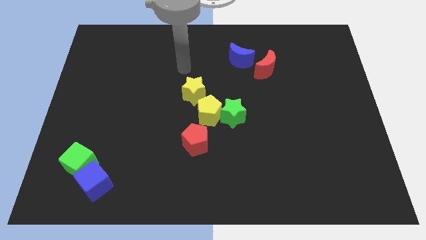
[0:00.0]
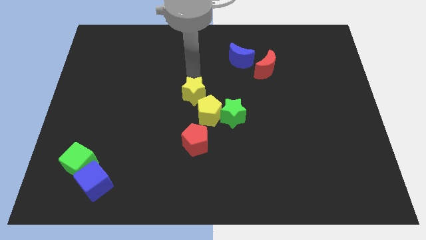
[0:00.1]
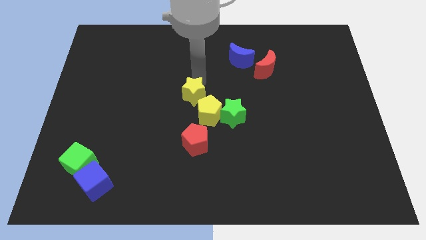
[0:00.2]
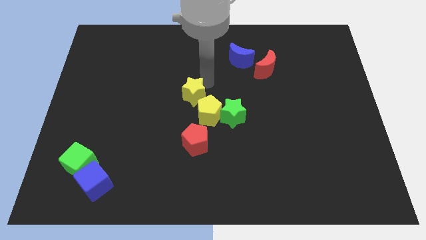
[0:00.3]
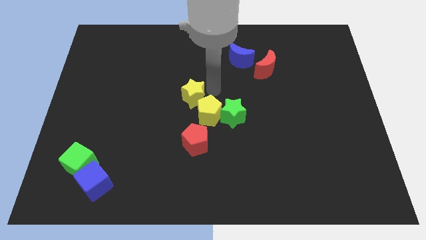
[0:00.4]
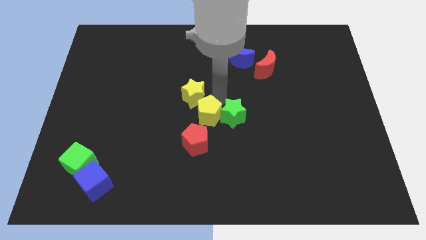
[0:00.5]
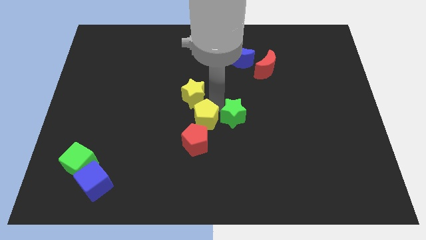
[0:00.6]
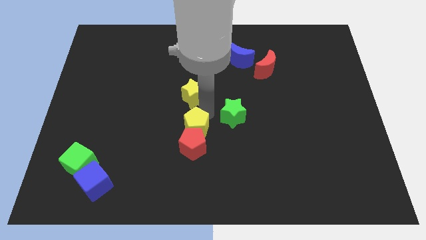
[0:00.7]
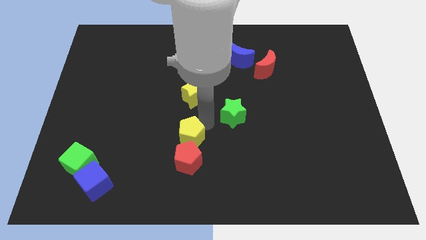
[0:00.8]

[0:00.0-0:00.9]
pull the green star apart from the yellow pentagon

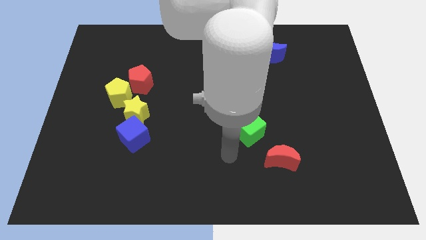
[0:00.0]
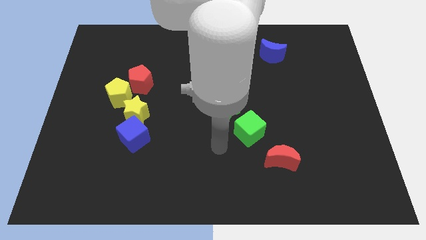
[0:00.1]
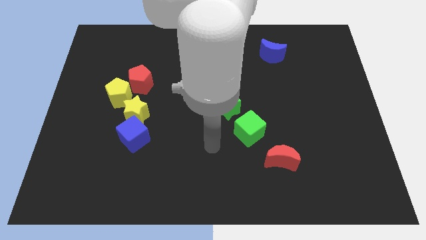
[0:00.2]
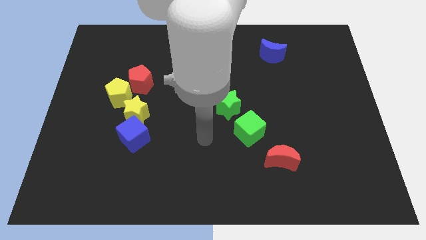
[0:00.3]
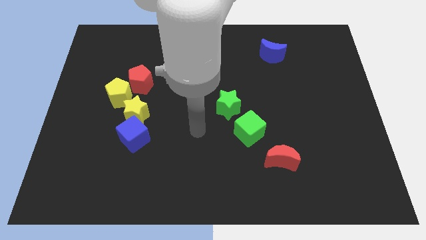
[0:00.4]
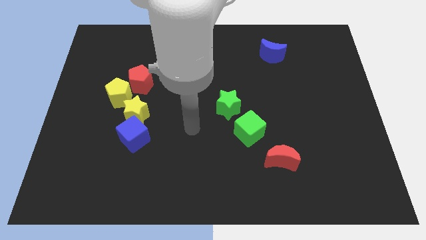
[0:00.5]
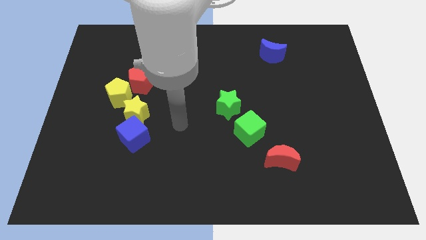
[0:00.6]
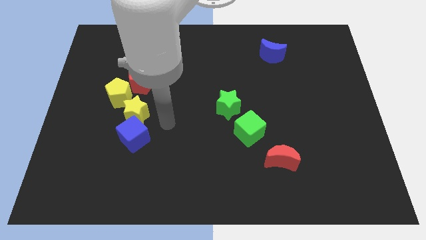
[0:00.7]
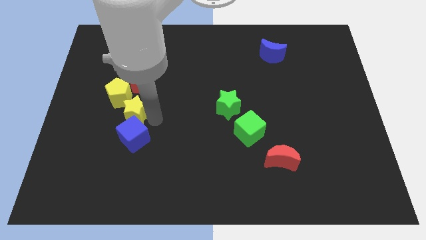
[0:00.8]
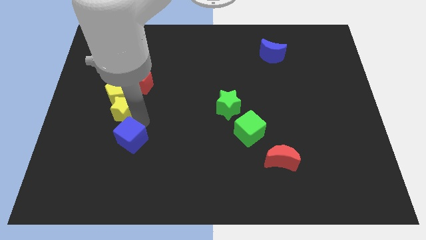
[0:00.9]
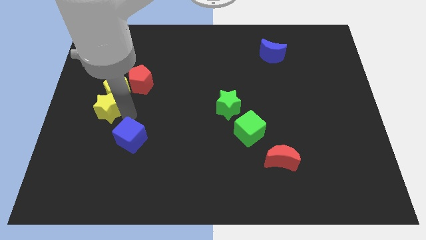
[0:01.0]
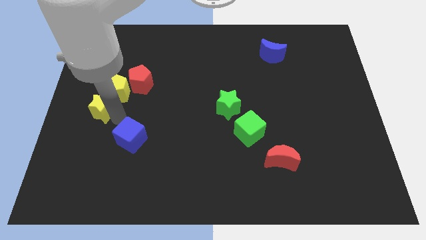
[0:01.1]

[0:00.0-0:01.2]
separate the blue cube from the yellow star

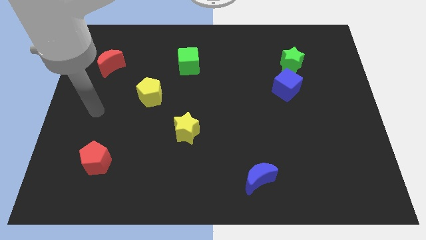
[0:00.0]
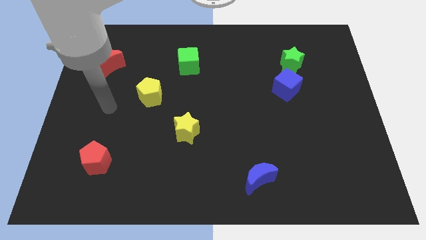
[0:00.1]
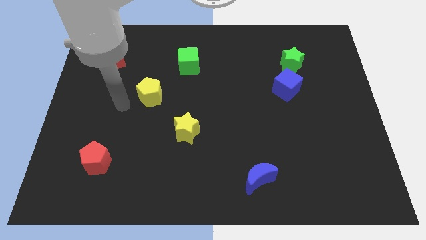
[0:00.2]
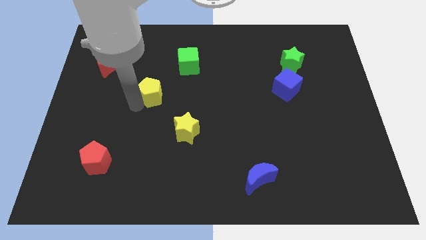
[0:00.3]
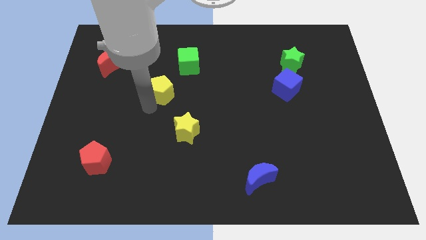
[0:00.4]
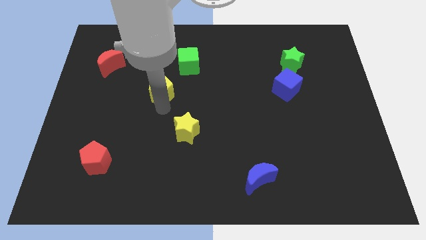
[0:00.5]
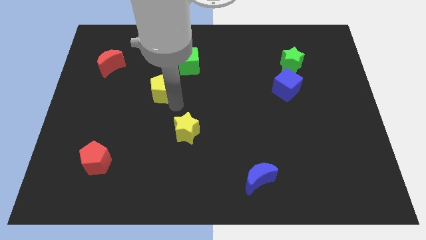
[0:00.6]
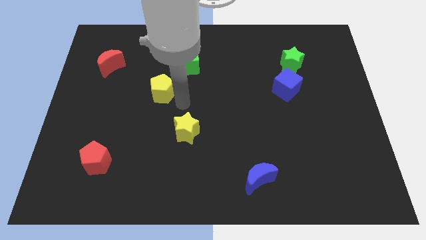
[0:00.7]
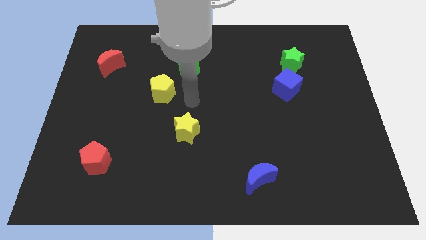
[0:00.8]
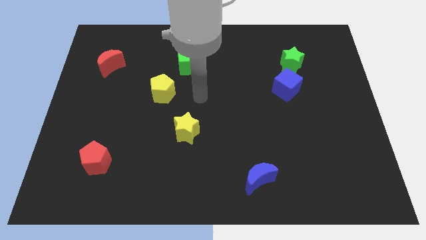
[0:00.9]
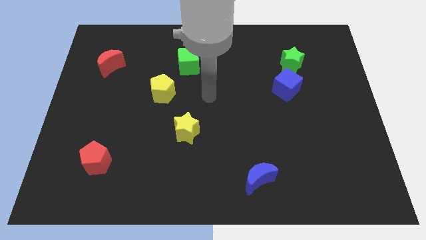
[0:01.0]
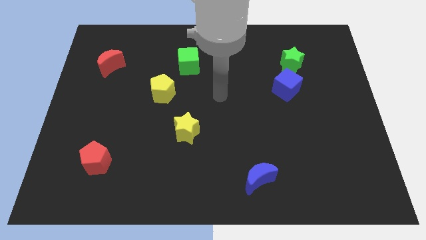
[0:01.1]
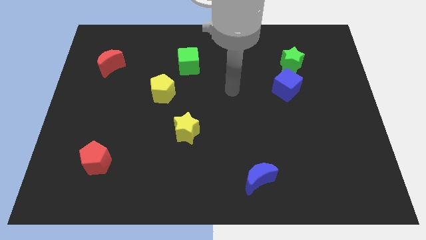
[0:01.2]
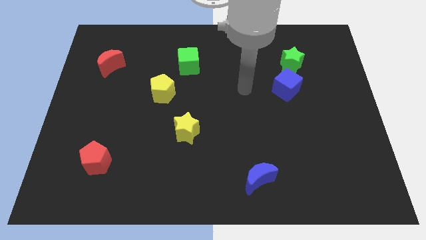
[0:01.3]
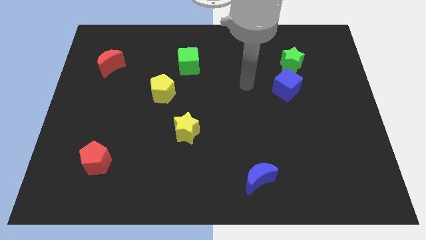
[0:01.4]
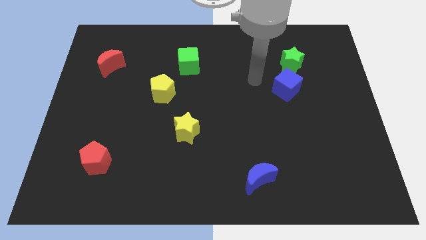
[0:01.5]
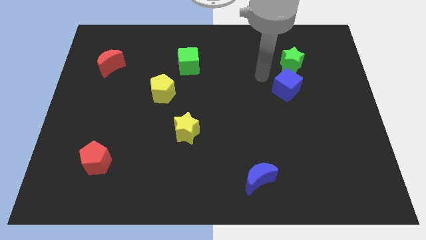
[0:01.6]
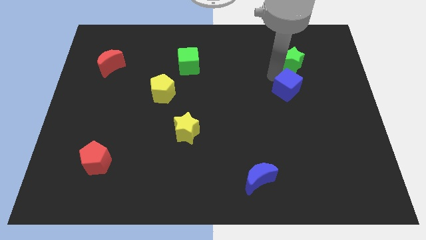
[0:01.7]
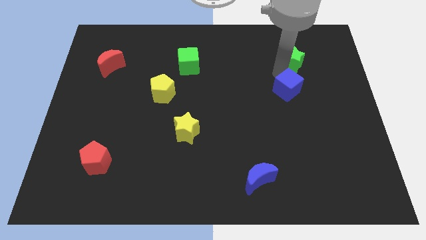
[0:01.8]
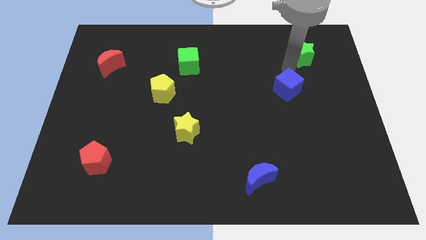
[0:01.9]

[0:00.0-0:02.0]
move the blue cube away from the green star

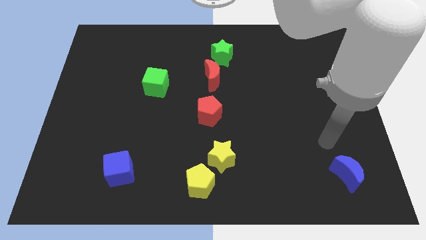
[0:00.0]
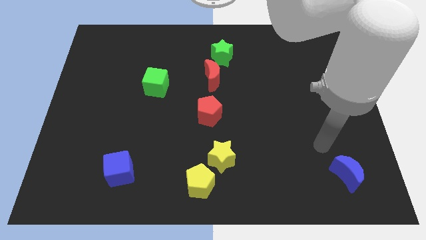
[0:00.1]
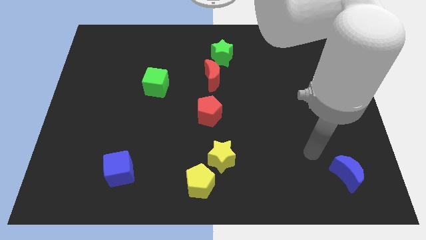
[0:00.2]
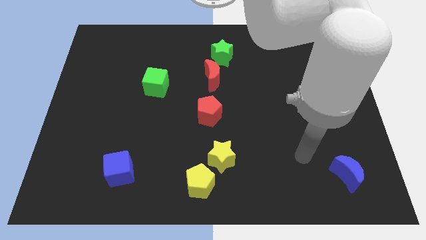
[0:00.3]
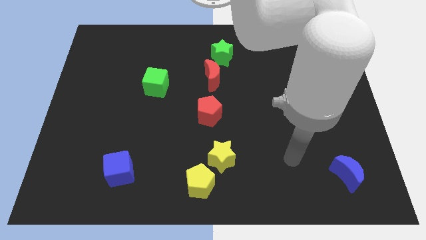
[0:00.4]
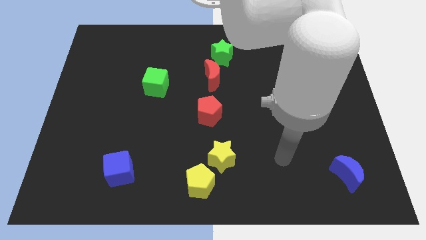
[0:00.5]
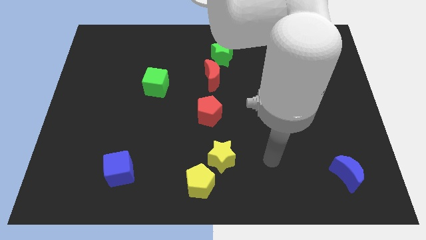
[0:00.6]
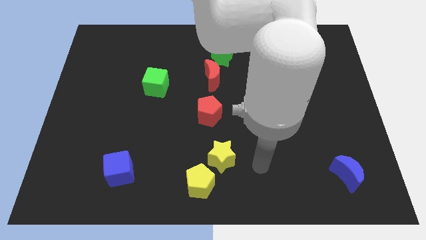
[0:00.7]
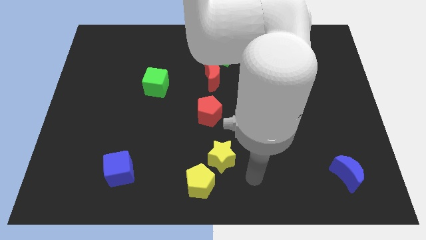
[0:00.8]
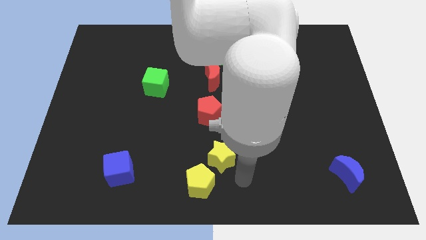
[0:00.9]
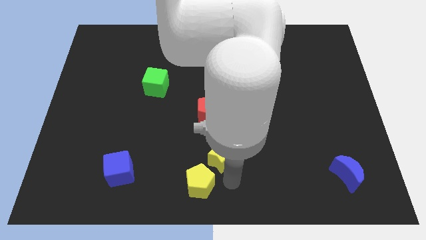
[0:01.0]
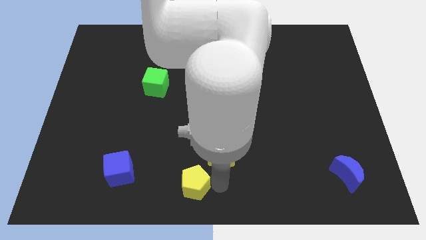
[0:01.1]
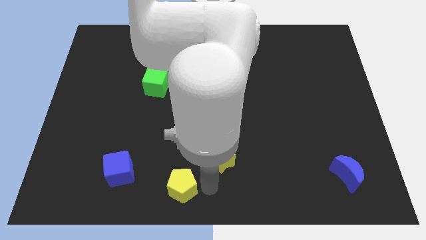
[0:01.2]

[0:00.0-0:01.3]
pull the yellow star apart from the yellow pentagon

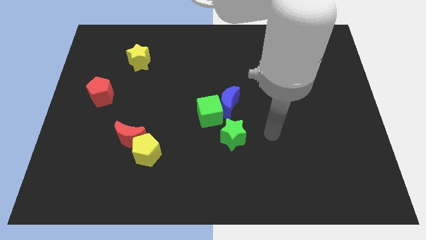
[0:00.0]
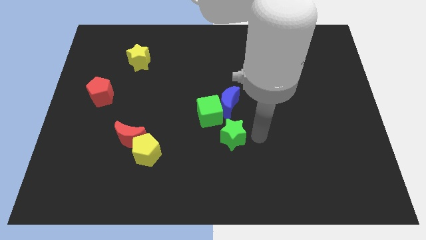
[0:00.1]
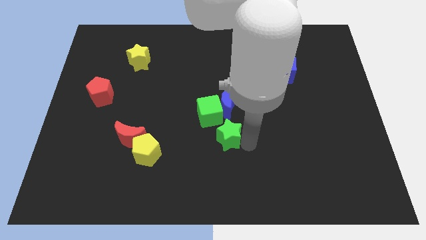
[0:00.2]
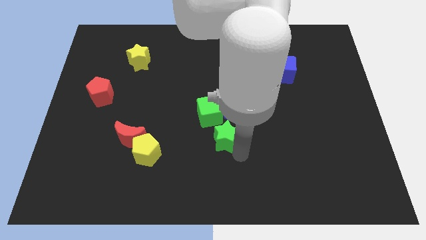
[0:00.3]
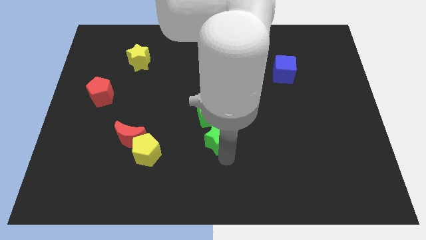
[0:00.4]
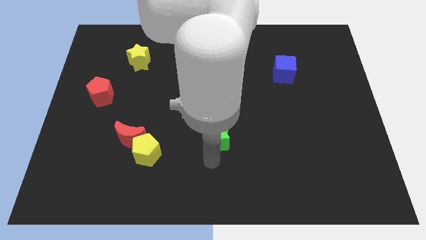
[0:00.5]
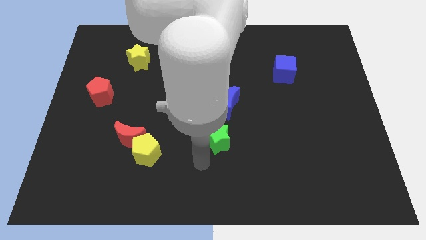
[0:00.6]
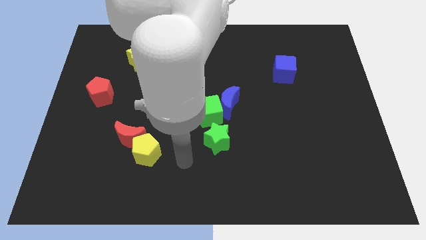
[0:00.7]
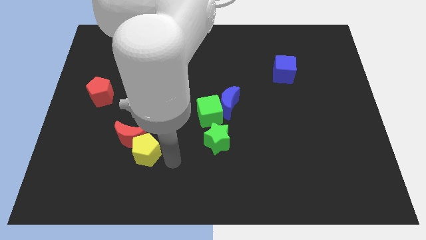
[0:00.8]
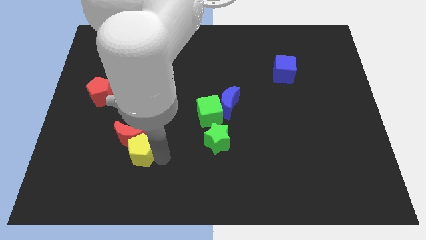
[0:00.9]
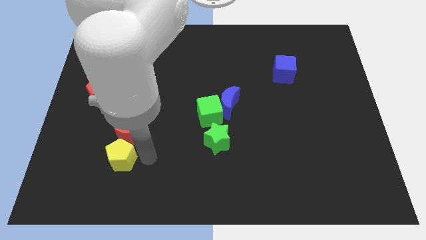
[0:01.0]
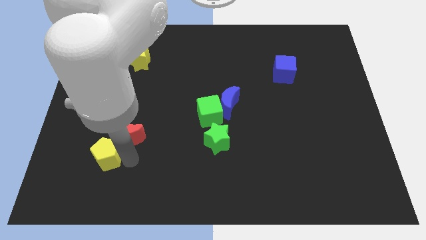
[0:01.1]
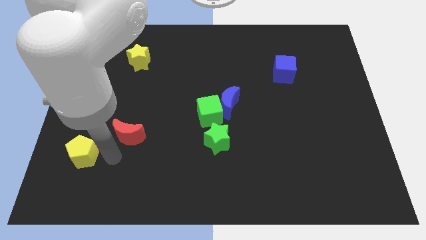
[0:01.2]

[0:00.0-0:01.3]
separate the red moon from the yellow pentagon

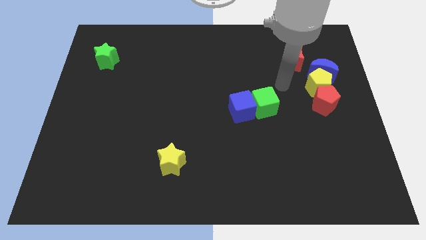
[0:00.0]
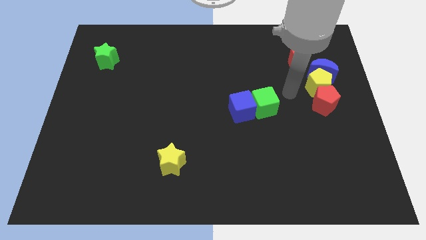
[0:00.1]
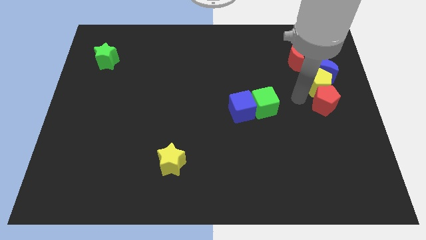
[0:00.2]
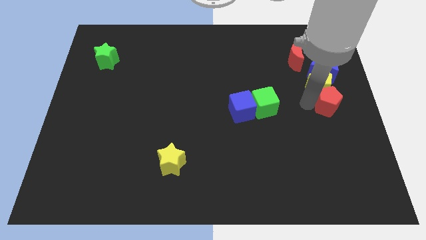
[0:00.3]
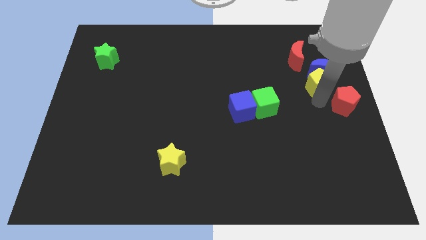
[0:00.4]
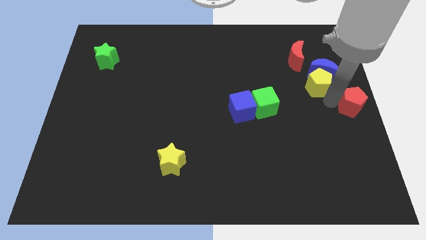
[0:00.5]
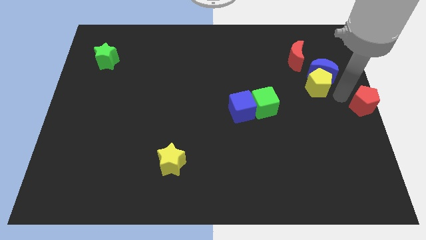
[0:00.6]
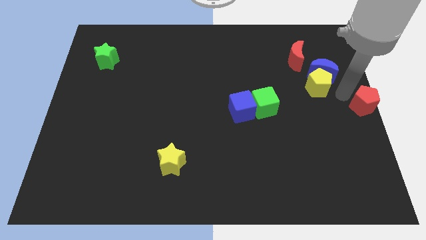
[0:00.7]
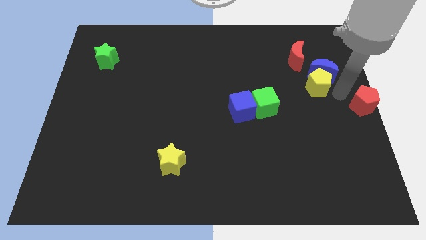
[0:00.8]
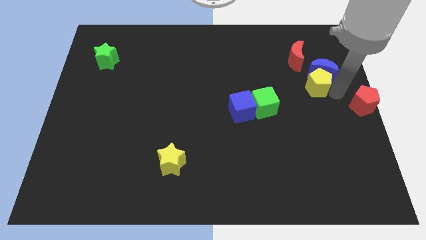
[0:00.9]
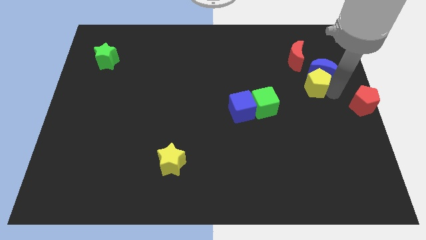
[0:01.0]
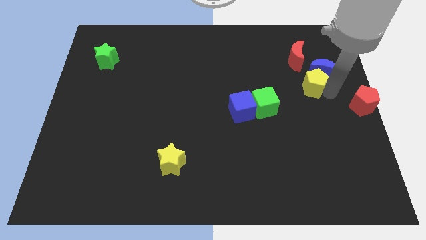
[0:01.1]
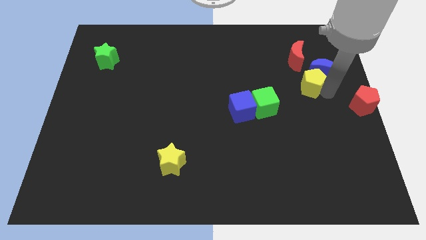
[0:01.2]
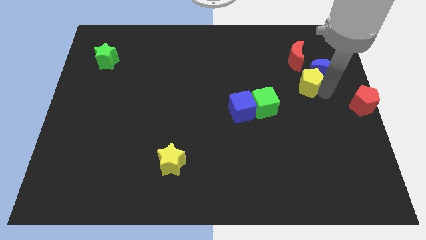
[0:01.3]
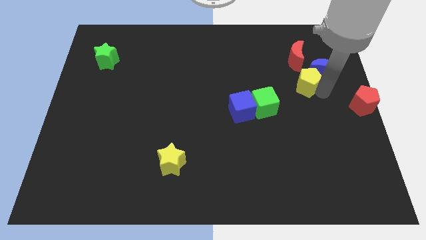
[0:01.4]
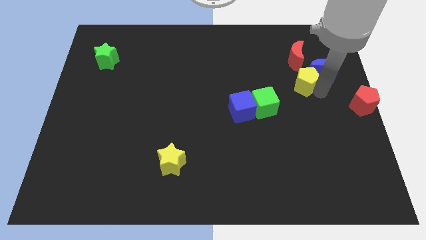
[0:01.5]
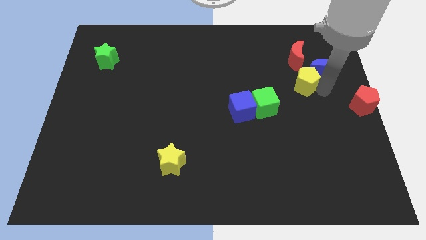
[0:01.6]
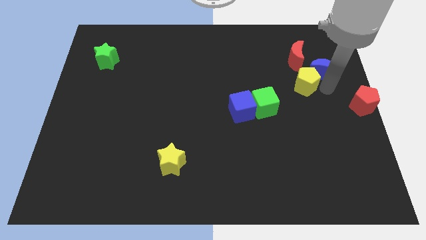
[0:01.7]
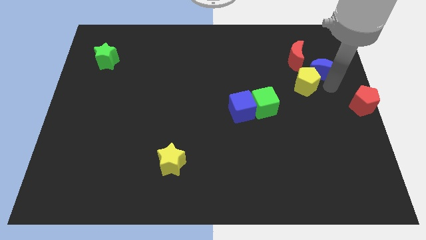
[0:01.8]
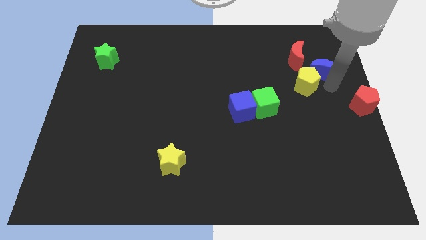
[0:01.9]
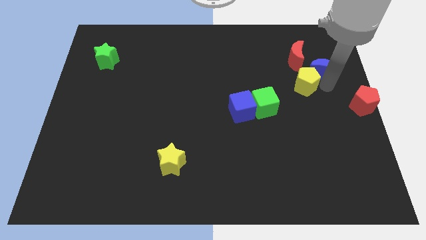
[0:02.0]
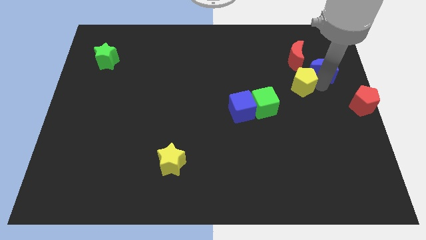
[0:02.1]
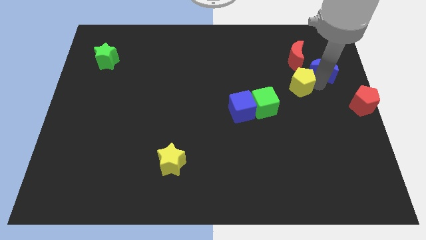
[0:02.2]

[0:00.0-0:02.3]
separate the yellow pentagon from the blue moon and red pentagon

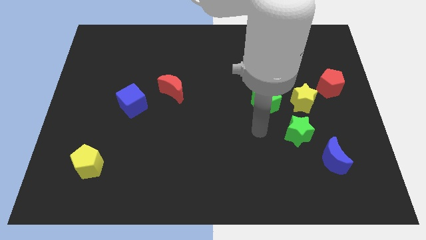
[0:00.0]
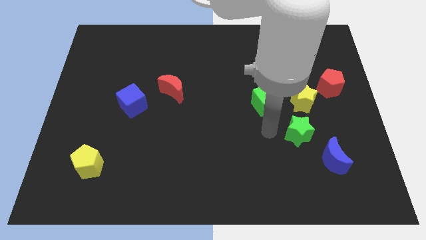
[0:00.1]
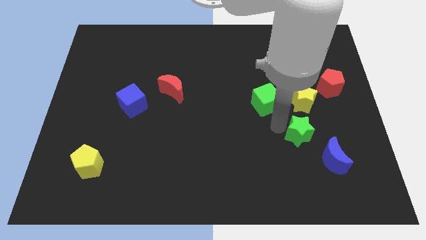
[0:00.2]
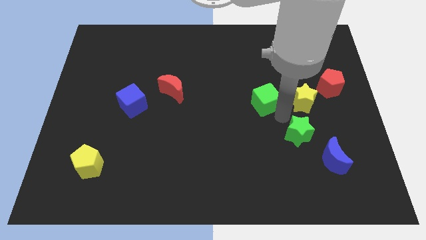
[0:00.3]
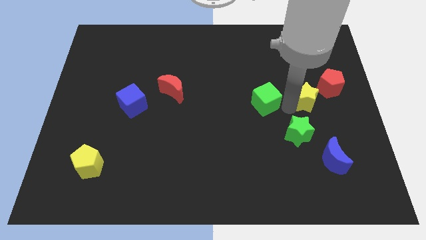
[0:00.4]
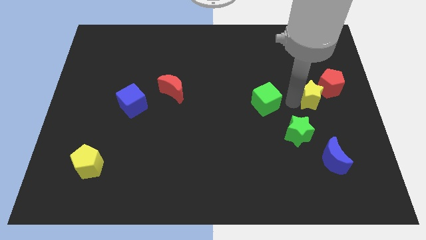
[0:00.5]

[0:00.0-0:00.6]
pull the green cube apart from the yellow star
